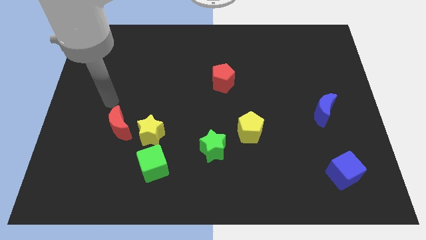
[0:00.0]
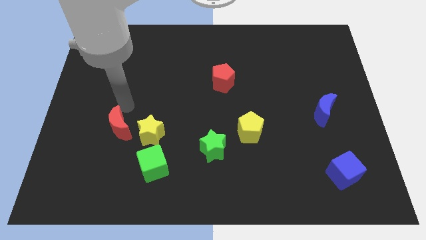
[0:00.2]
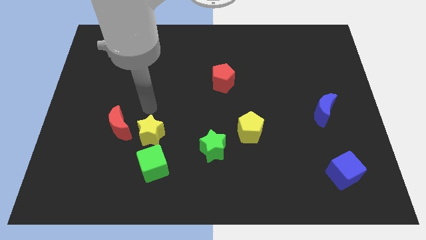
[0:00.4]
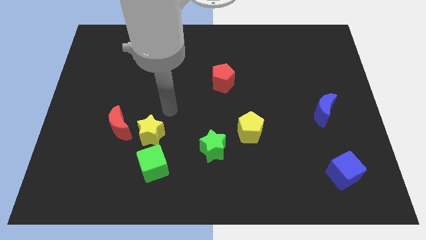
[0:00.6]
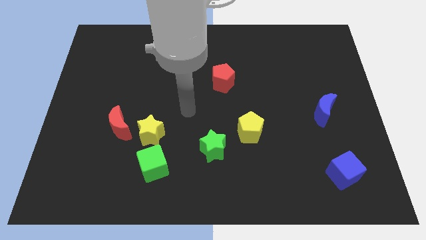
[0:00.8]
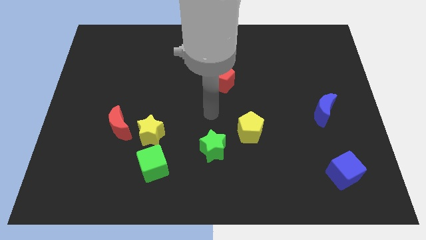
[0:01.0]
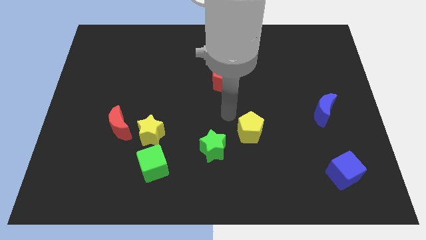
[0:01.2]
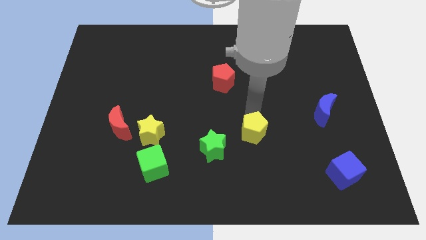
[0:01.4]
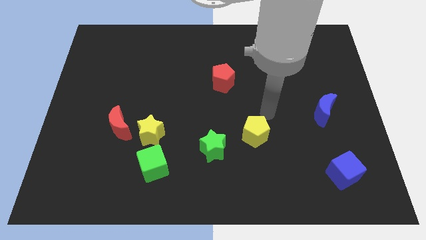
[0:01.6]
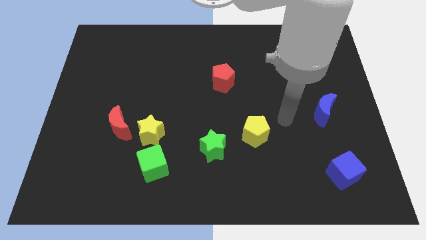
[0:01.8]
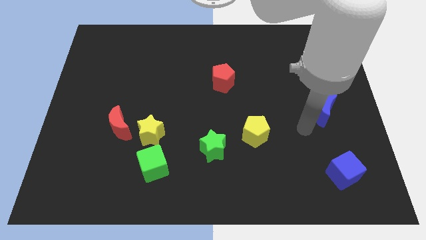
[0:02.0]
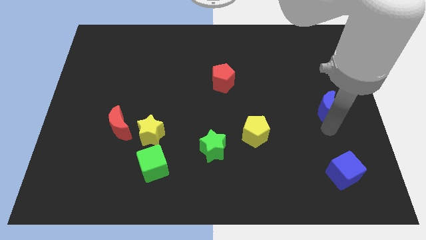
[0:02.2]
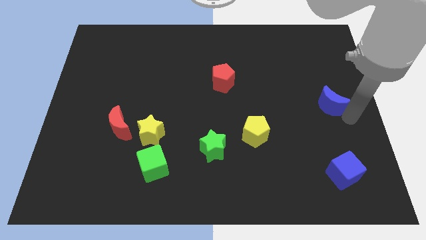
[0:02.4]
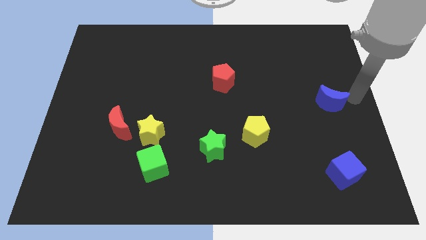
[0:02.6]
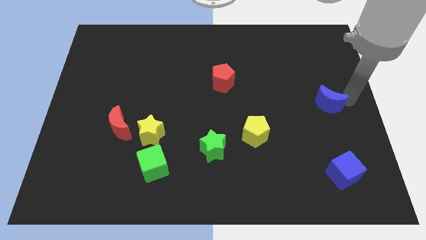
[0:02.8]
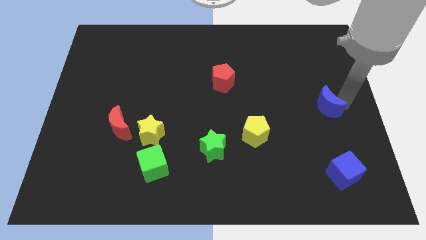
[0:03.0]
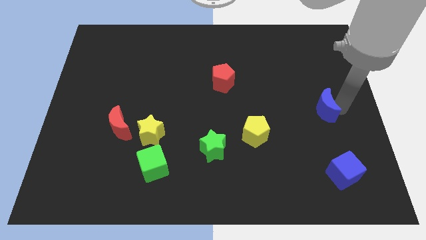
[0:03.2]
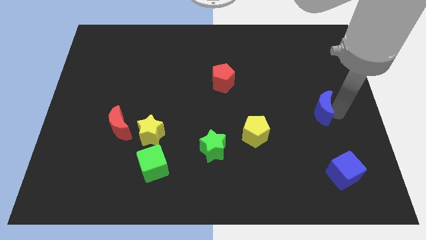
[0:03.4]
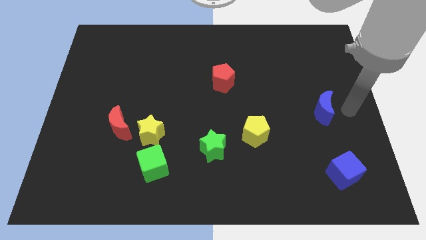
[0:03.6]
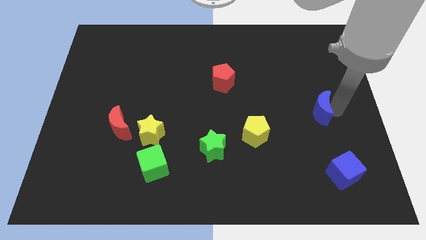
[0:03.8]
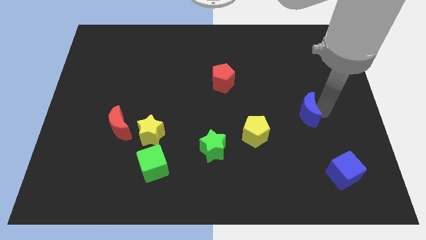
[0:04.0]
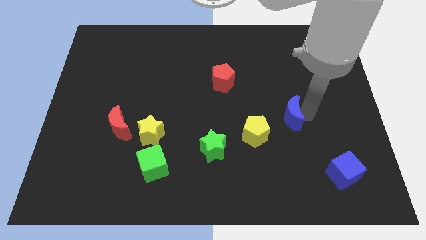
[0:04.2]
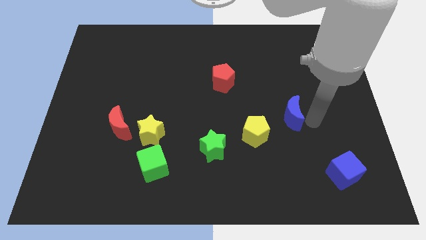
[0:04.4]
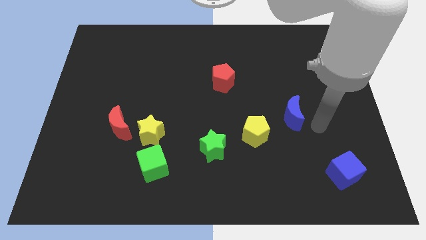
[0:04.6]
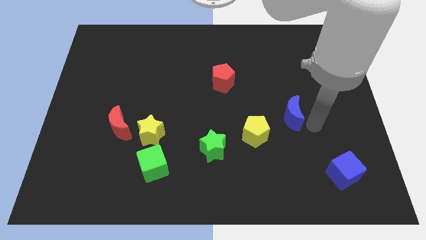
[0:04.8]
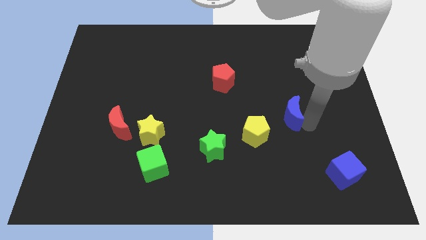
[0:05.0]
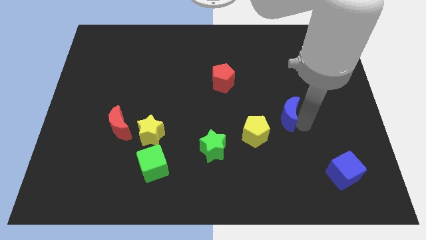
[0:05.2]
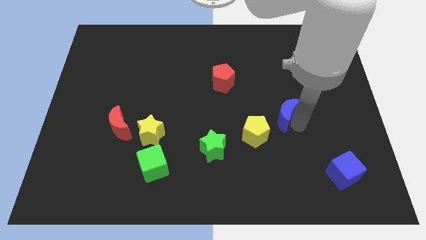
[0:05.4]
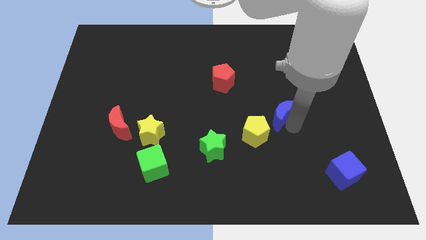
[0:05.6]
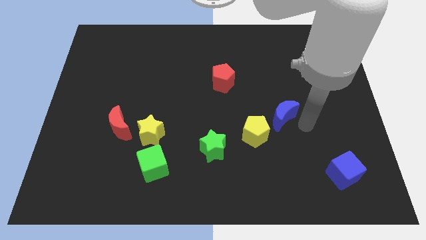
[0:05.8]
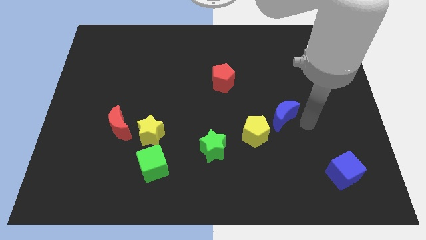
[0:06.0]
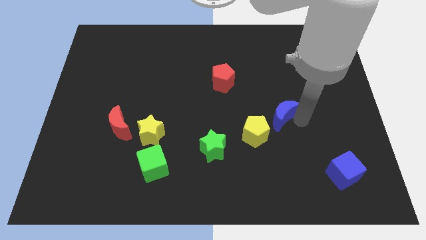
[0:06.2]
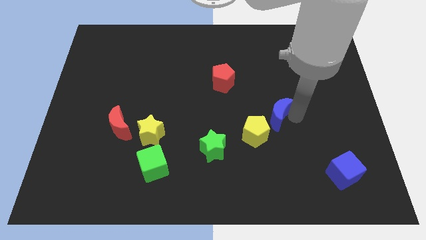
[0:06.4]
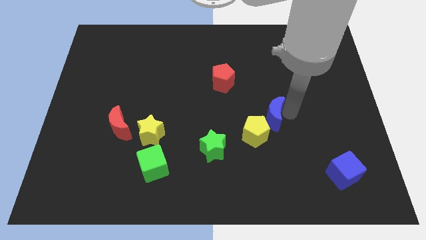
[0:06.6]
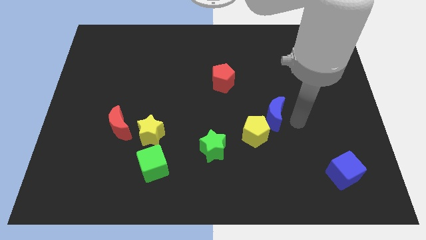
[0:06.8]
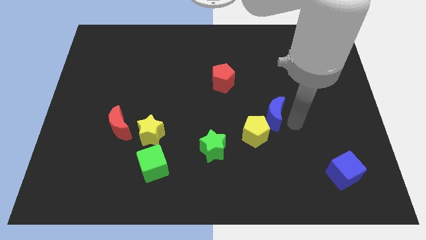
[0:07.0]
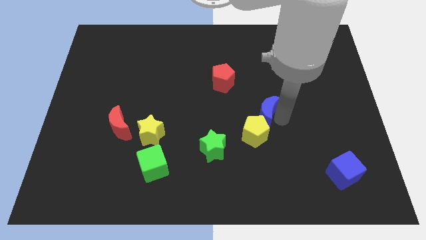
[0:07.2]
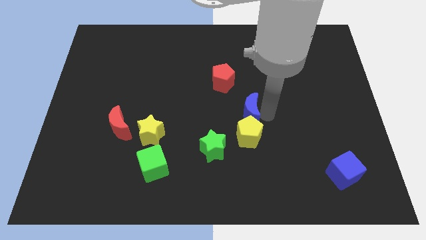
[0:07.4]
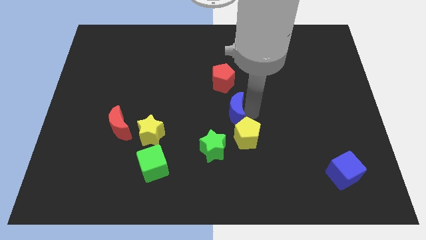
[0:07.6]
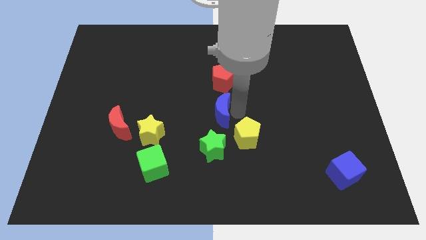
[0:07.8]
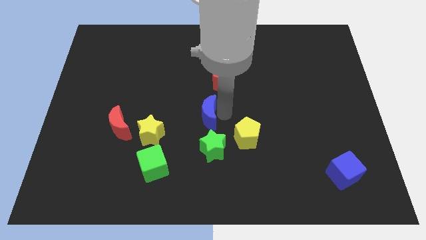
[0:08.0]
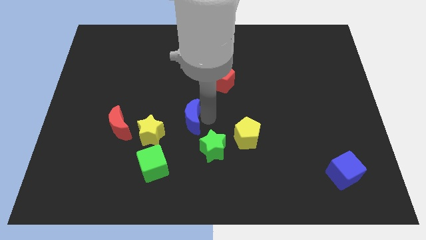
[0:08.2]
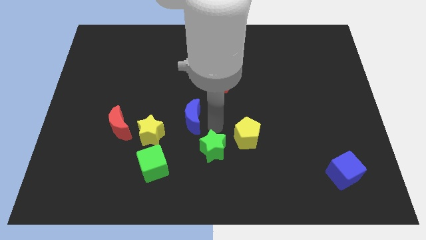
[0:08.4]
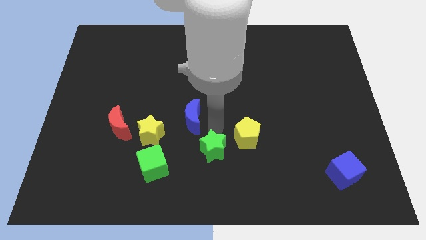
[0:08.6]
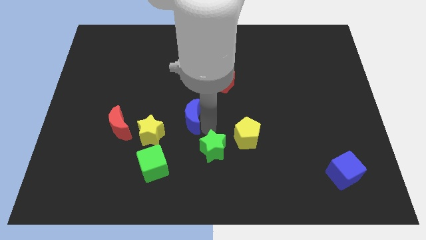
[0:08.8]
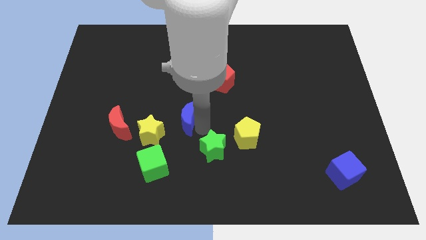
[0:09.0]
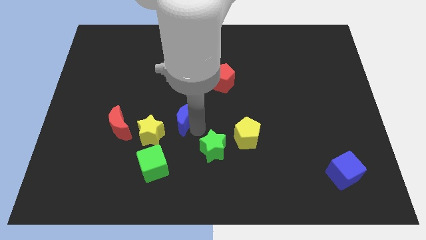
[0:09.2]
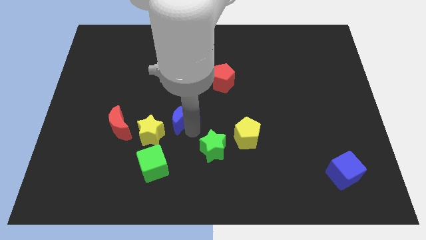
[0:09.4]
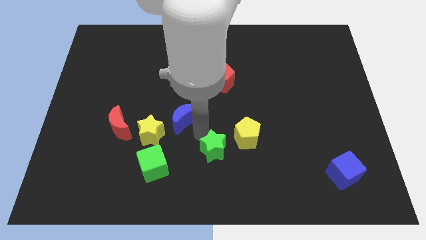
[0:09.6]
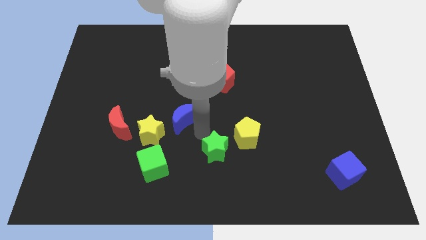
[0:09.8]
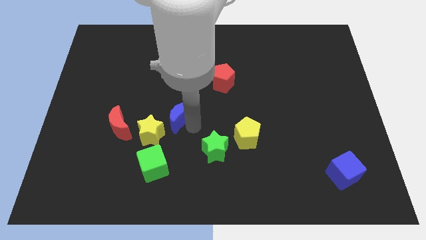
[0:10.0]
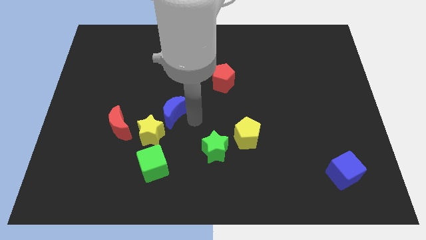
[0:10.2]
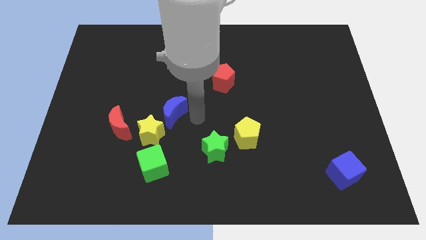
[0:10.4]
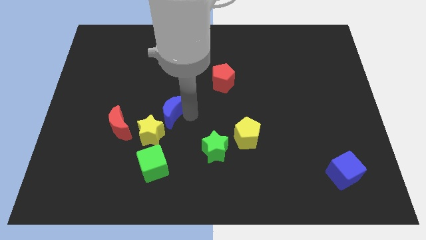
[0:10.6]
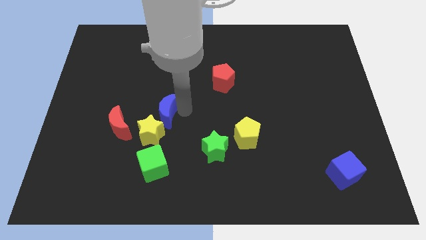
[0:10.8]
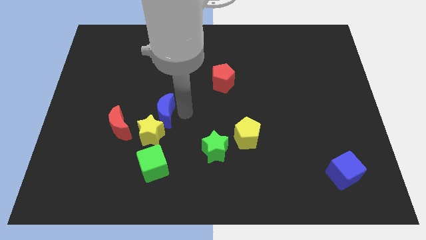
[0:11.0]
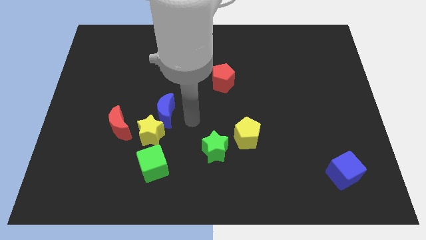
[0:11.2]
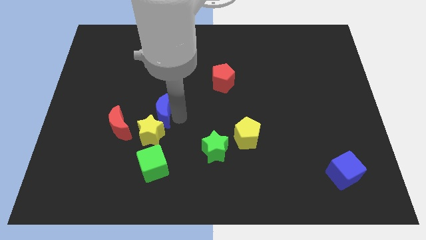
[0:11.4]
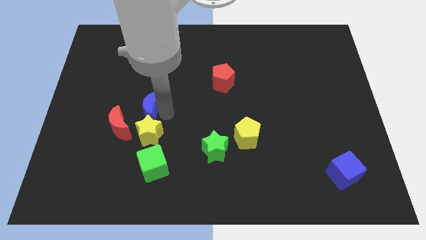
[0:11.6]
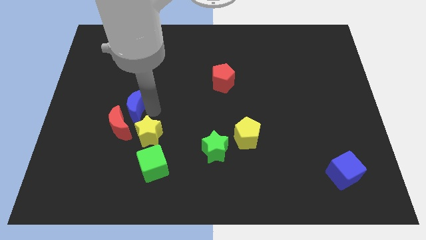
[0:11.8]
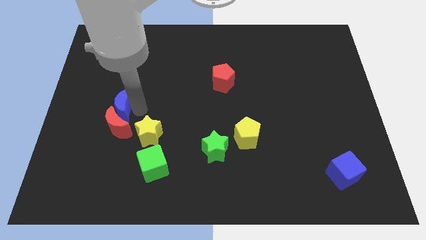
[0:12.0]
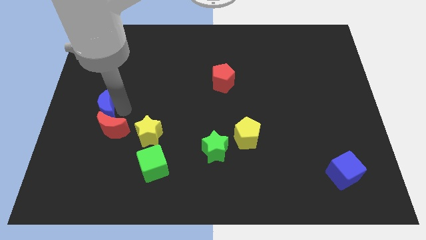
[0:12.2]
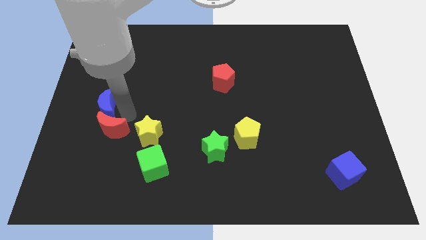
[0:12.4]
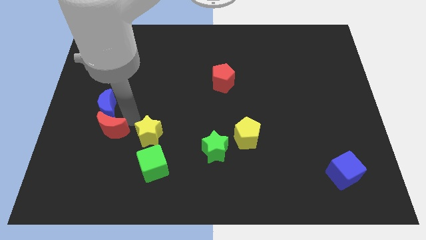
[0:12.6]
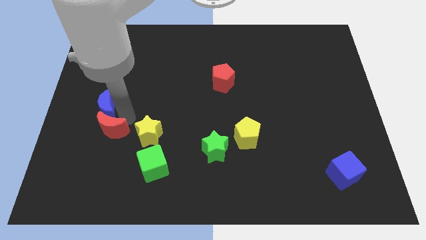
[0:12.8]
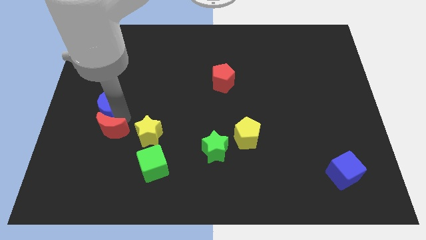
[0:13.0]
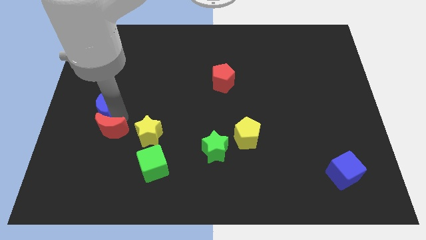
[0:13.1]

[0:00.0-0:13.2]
put the blue moon to the center left
